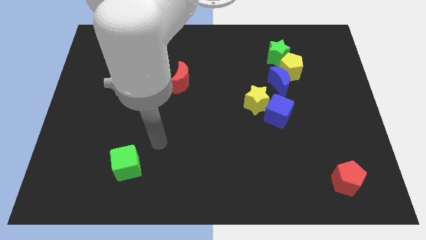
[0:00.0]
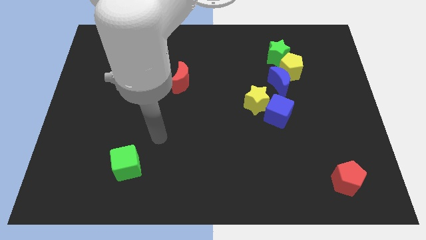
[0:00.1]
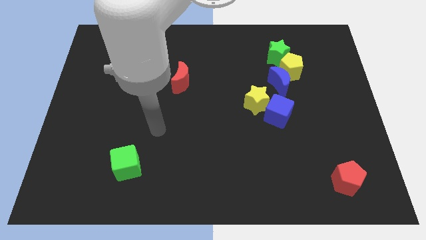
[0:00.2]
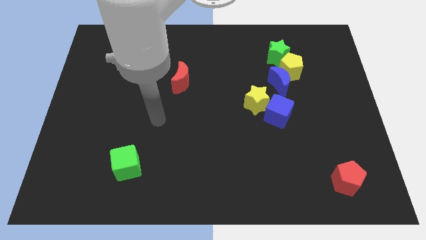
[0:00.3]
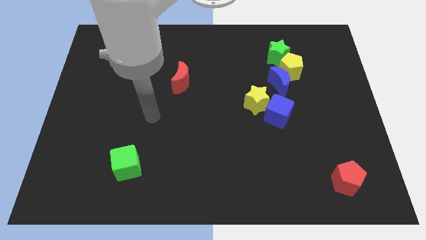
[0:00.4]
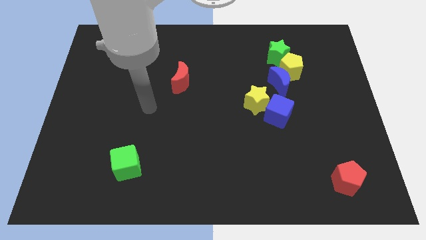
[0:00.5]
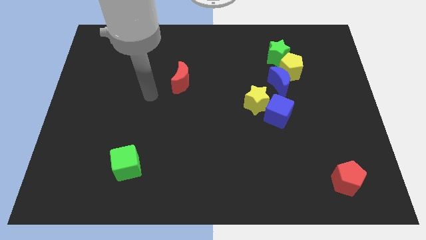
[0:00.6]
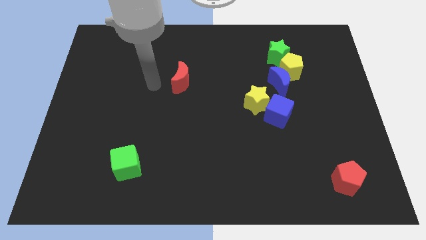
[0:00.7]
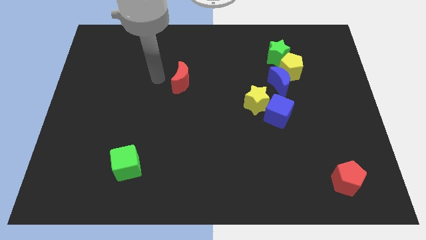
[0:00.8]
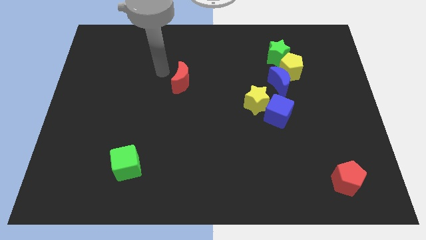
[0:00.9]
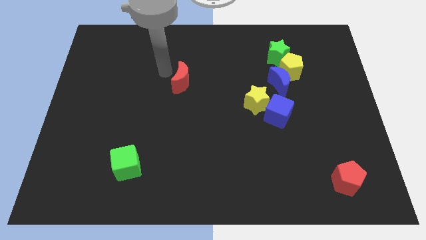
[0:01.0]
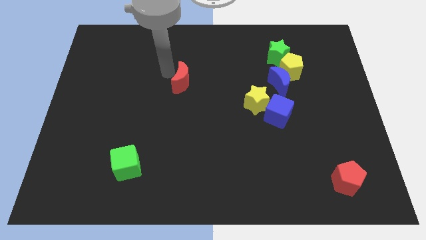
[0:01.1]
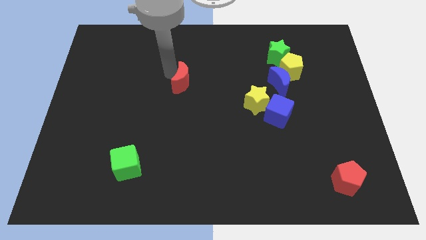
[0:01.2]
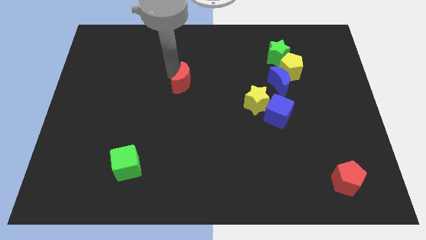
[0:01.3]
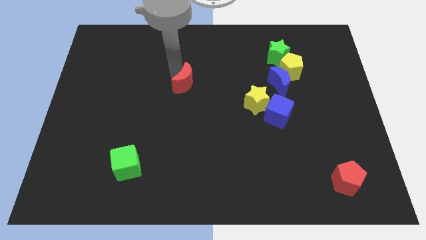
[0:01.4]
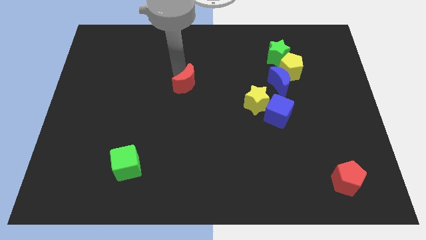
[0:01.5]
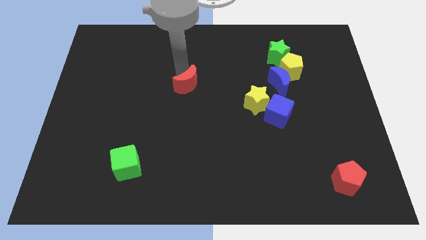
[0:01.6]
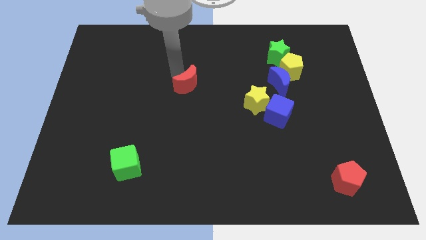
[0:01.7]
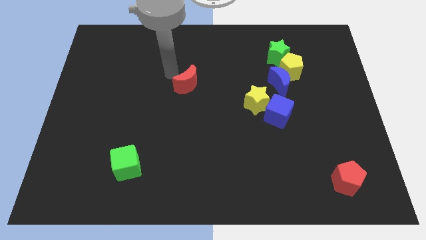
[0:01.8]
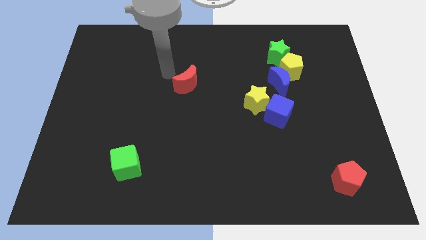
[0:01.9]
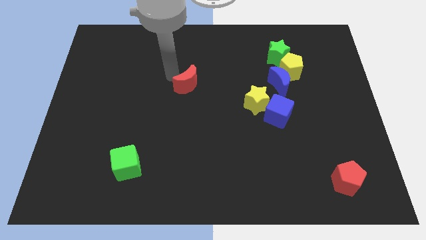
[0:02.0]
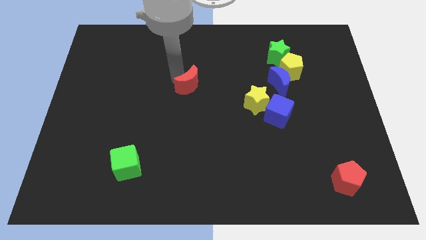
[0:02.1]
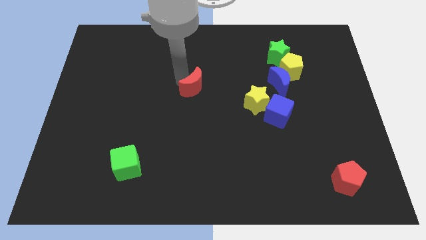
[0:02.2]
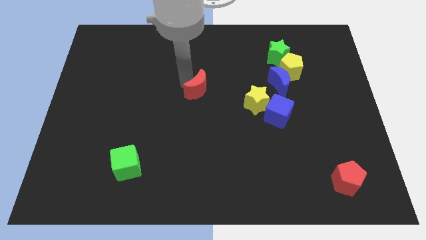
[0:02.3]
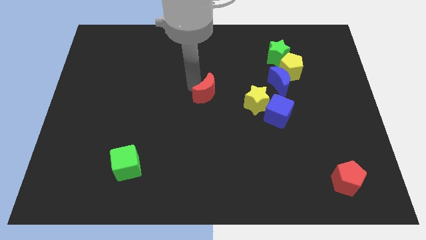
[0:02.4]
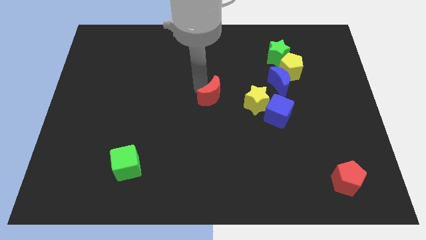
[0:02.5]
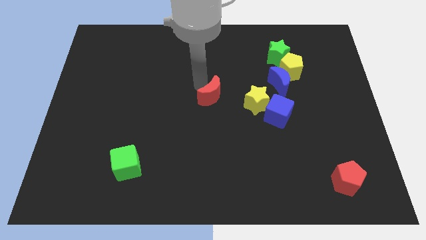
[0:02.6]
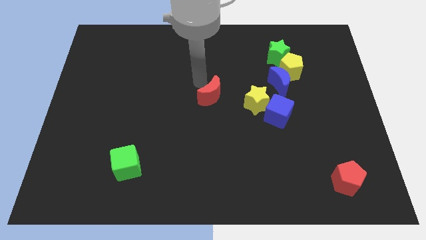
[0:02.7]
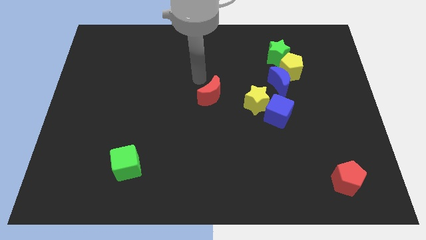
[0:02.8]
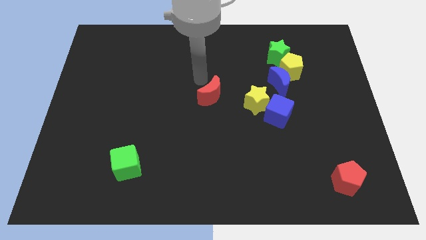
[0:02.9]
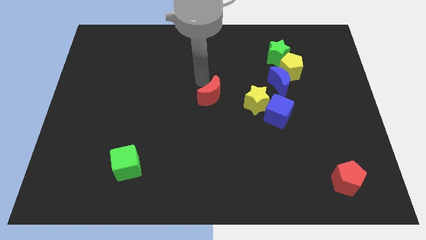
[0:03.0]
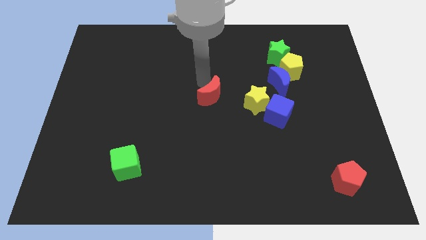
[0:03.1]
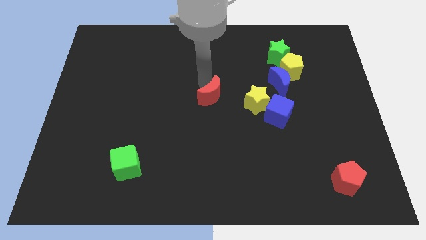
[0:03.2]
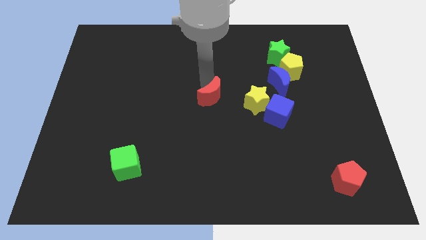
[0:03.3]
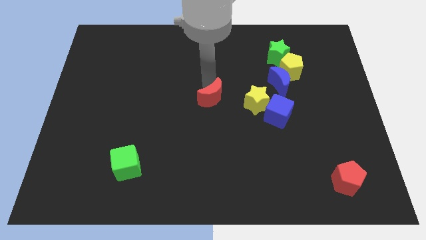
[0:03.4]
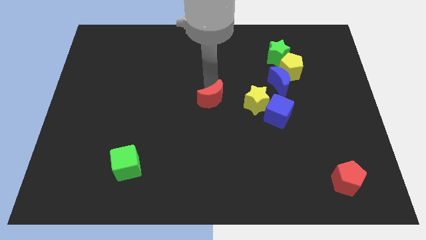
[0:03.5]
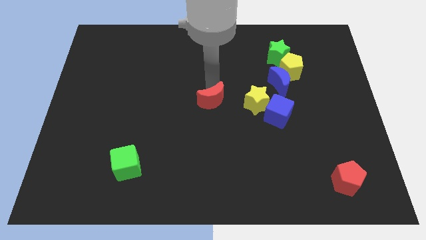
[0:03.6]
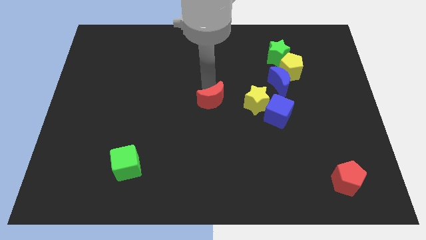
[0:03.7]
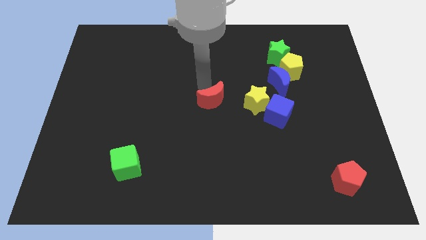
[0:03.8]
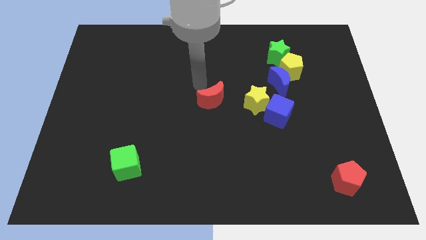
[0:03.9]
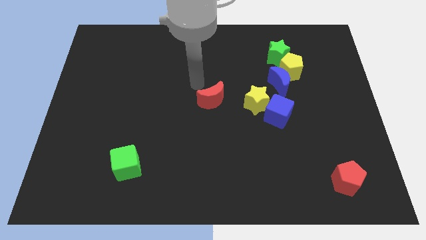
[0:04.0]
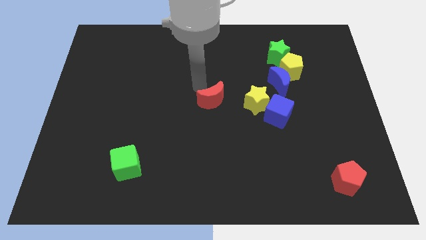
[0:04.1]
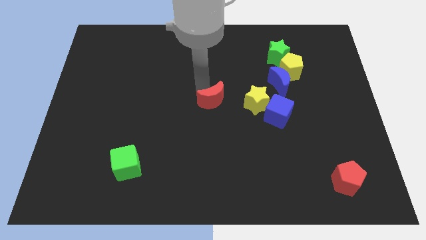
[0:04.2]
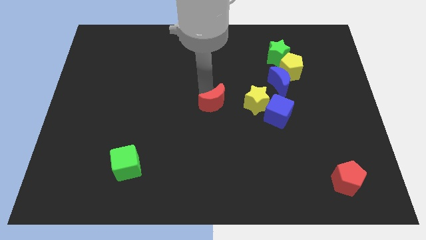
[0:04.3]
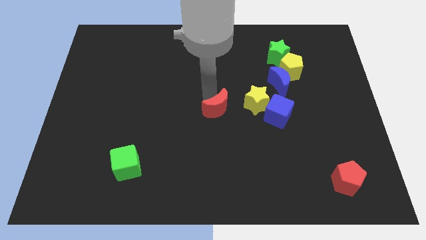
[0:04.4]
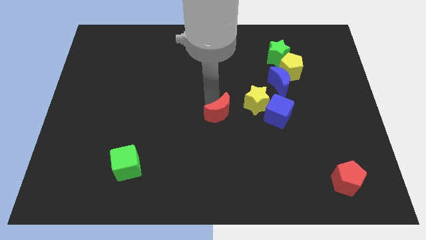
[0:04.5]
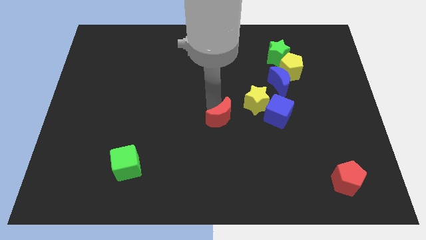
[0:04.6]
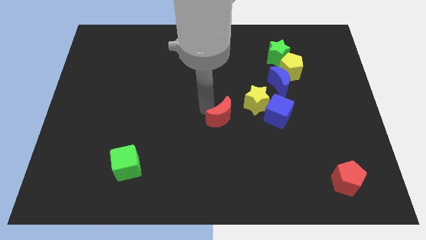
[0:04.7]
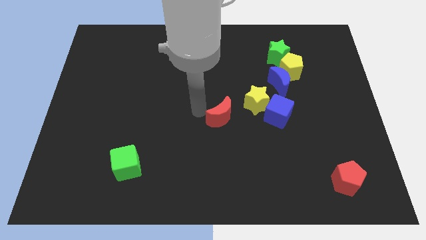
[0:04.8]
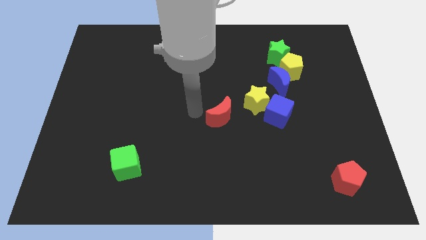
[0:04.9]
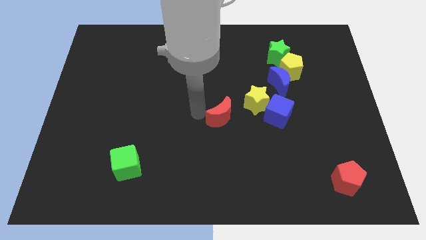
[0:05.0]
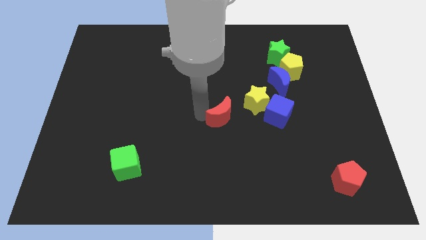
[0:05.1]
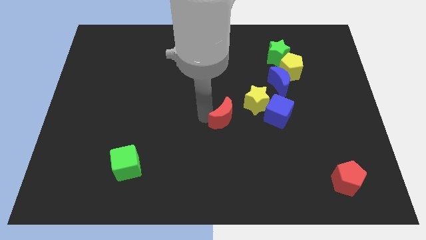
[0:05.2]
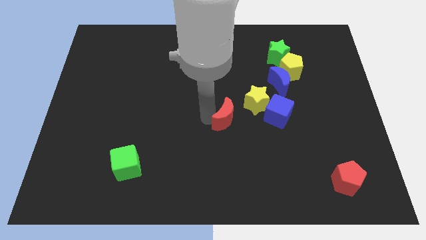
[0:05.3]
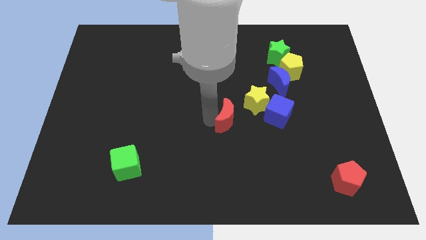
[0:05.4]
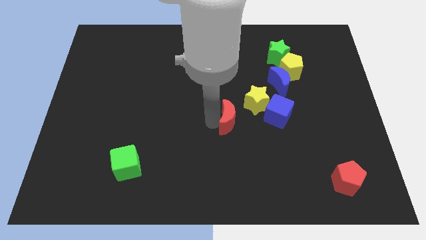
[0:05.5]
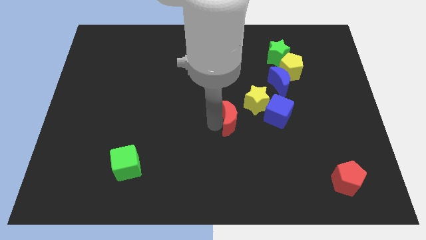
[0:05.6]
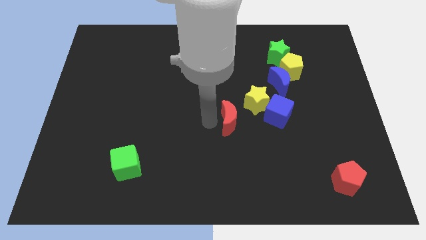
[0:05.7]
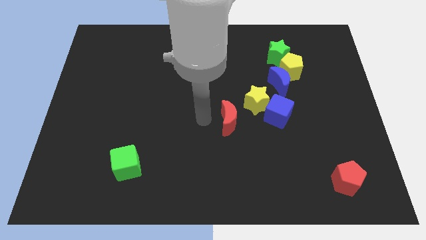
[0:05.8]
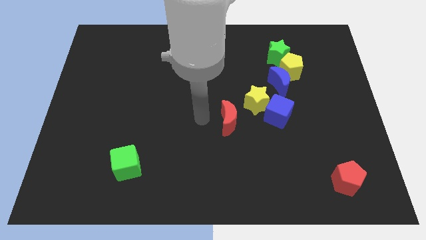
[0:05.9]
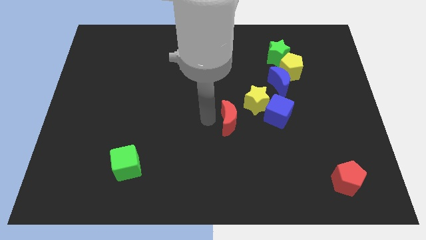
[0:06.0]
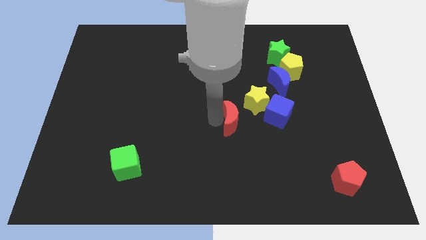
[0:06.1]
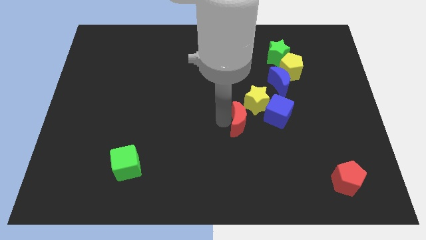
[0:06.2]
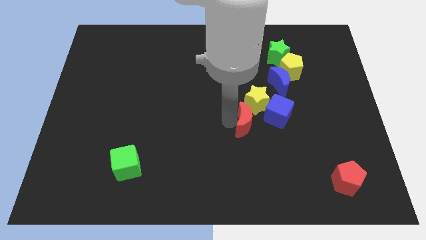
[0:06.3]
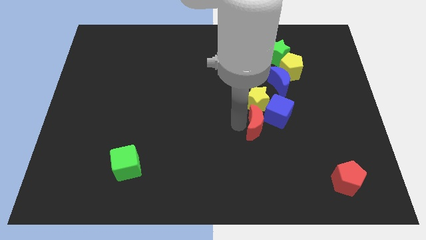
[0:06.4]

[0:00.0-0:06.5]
move the red moon to the blue cube

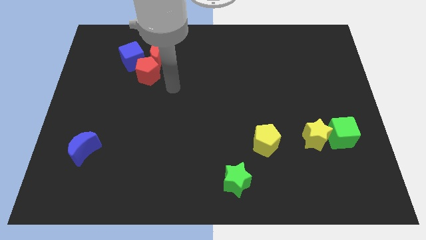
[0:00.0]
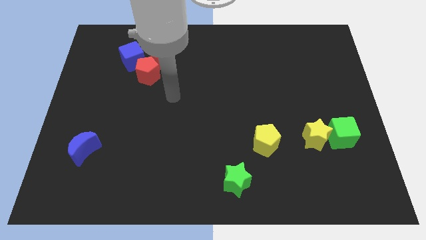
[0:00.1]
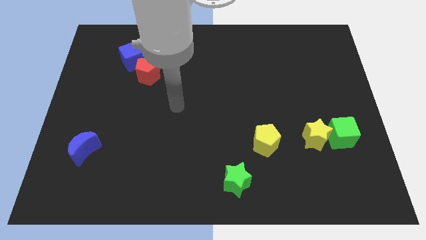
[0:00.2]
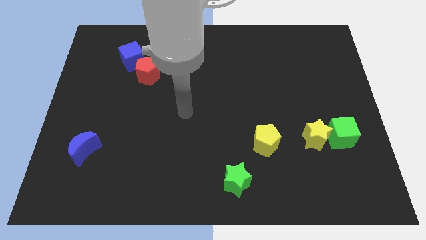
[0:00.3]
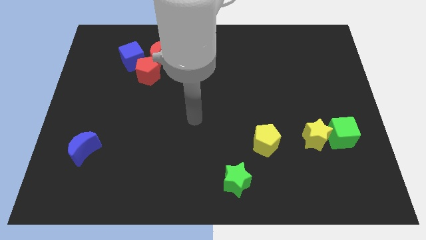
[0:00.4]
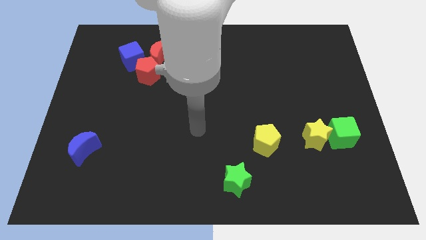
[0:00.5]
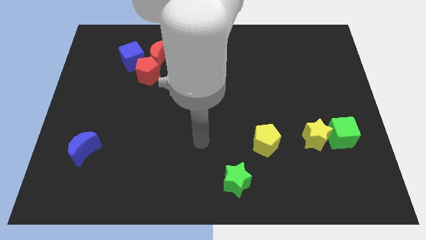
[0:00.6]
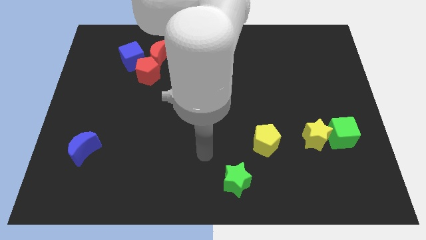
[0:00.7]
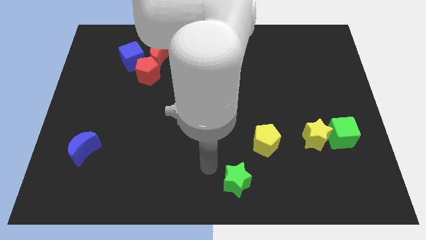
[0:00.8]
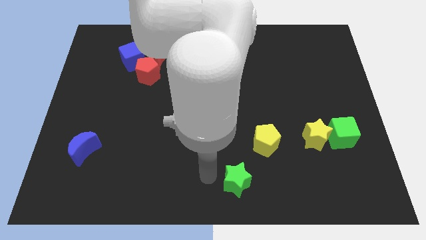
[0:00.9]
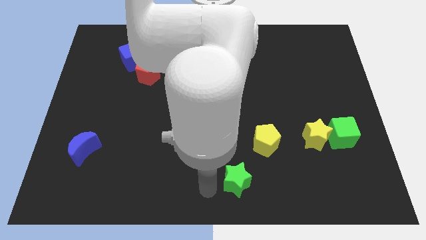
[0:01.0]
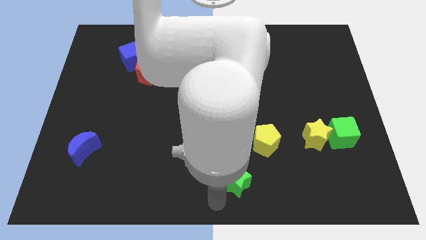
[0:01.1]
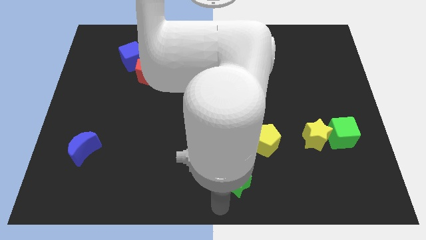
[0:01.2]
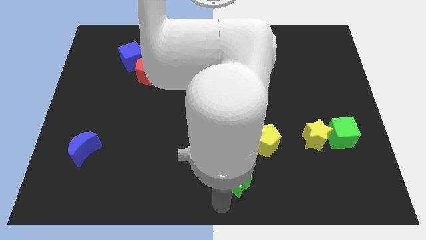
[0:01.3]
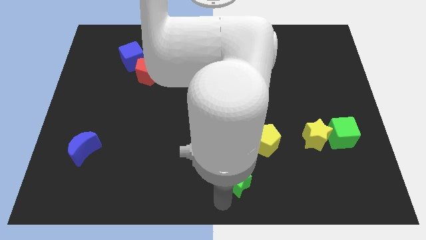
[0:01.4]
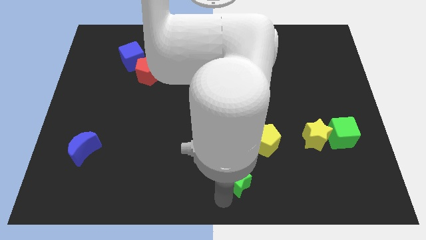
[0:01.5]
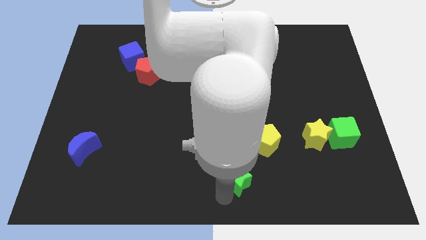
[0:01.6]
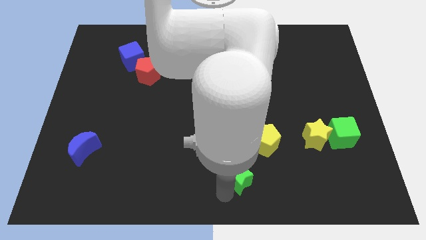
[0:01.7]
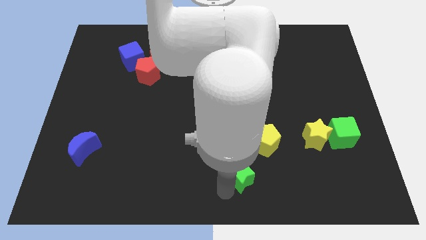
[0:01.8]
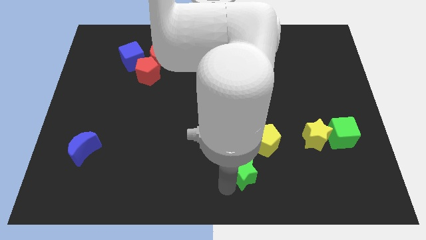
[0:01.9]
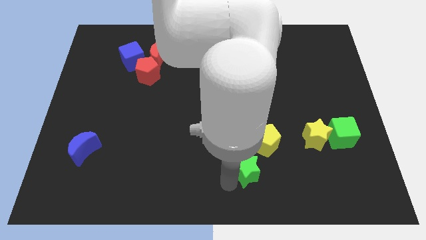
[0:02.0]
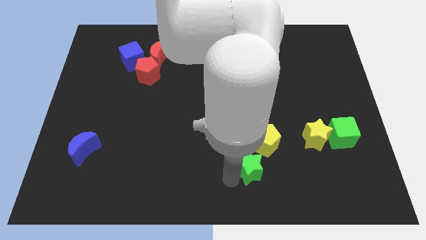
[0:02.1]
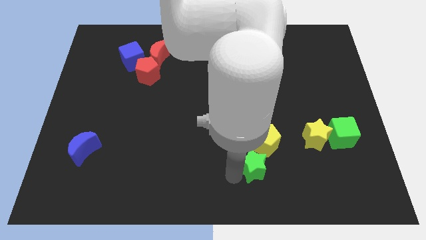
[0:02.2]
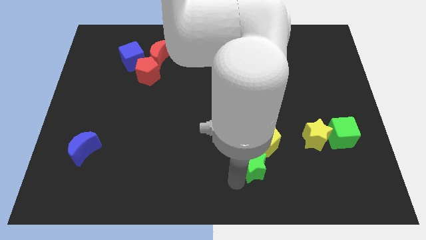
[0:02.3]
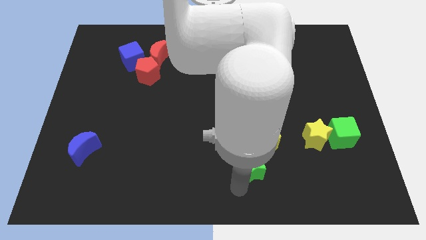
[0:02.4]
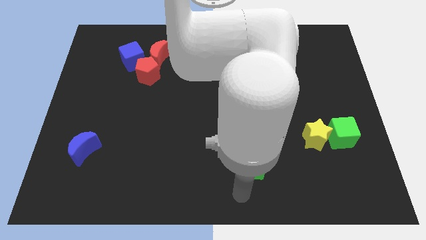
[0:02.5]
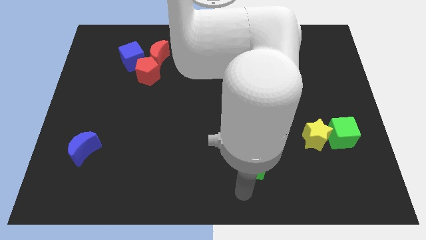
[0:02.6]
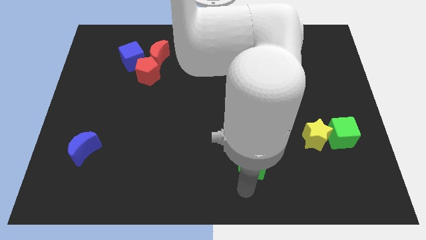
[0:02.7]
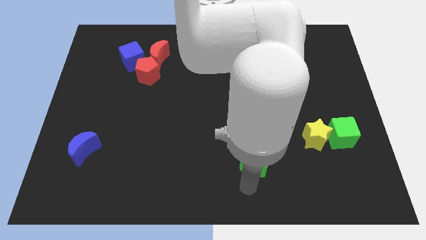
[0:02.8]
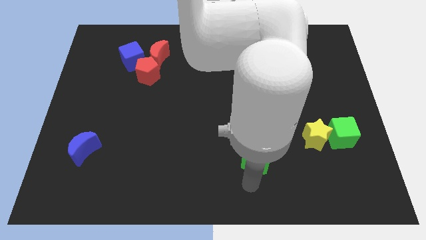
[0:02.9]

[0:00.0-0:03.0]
slide the green star next to the yellow pentagon
